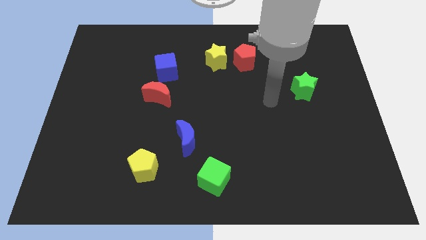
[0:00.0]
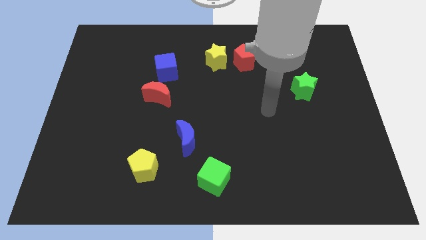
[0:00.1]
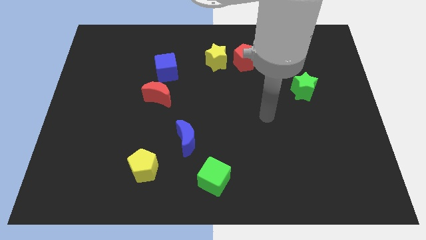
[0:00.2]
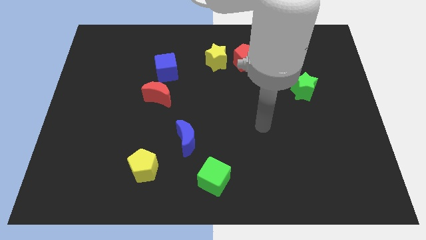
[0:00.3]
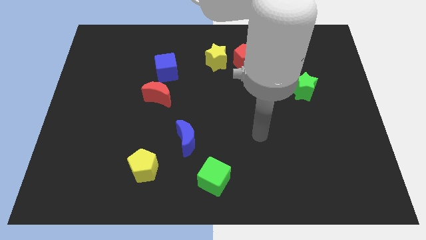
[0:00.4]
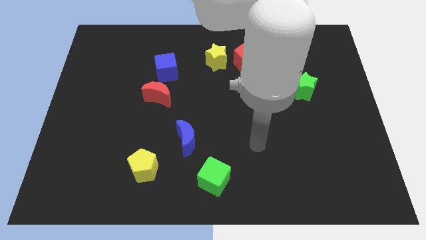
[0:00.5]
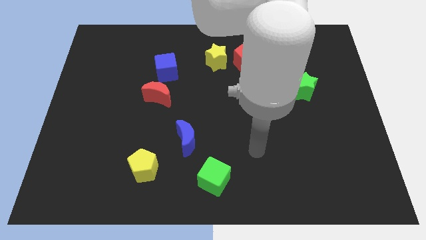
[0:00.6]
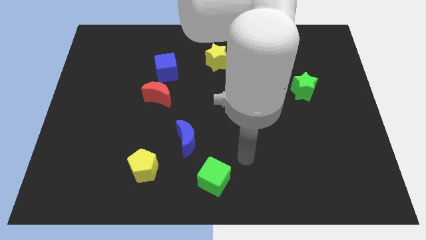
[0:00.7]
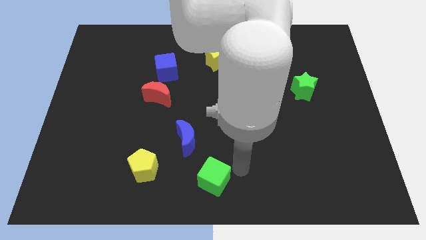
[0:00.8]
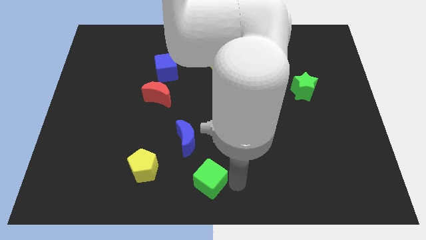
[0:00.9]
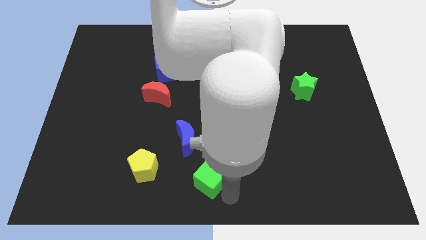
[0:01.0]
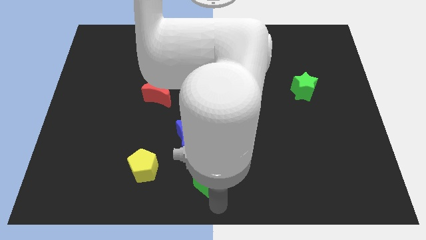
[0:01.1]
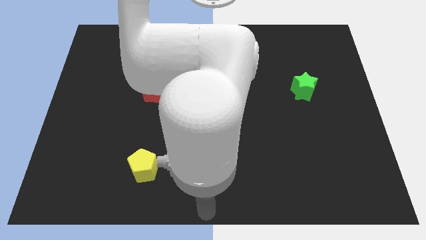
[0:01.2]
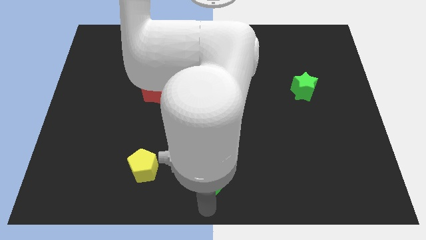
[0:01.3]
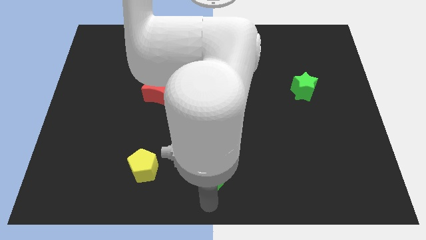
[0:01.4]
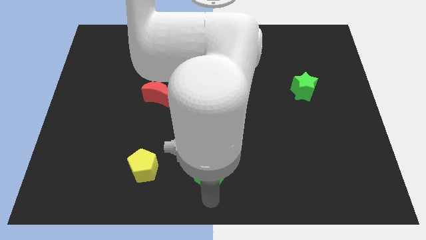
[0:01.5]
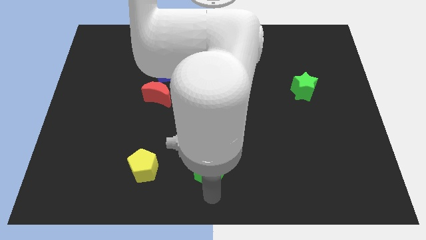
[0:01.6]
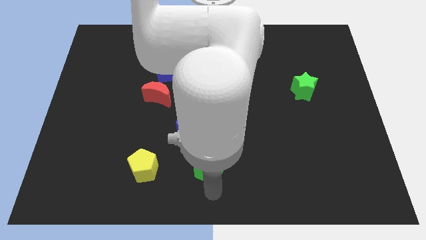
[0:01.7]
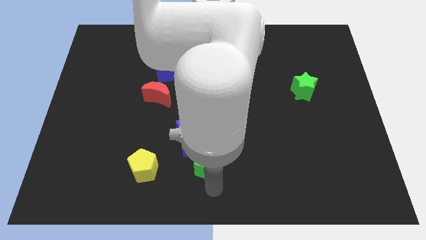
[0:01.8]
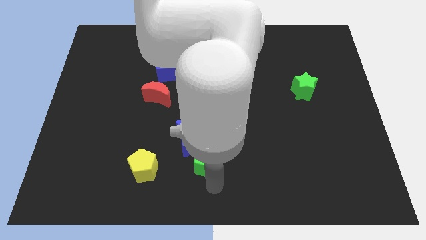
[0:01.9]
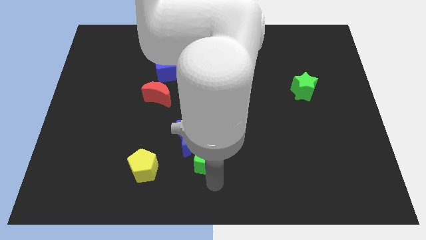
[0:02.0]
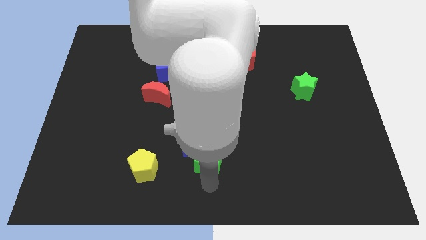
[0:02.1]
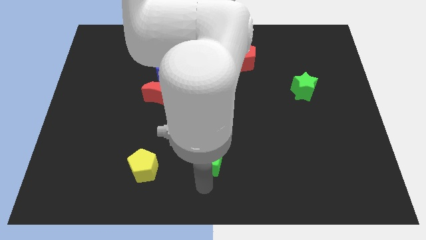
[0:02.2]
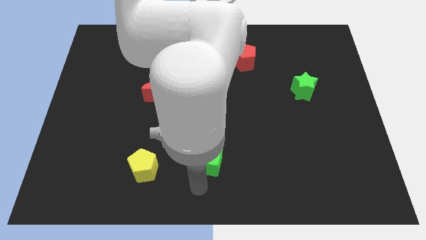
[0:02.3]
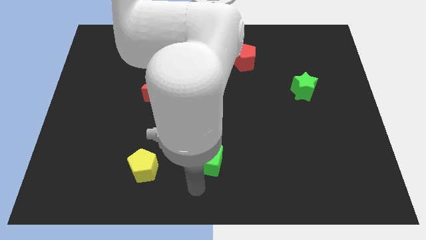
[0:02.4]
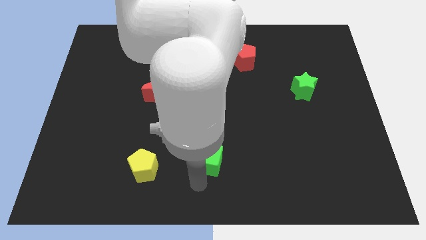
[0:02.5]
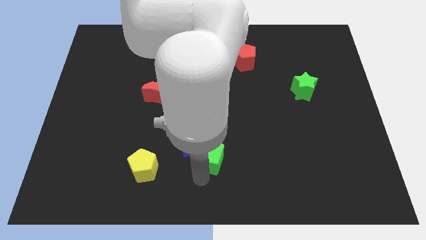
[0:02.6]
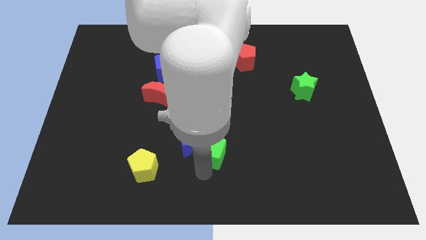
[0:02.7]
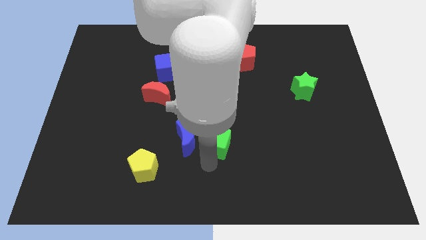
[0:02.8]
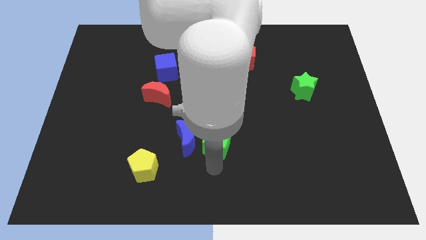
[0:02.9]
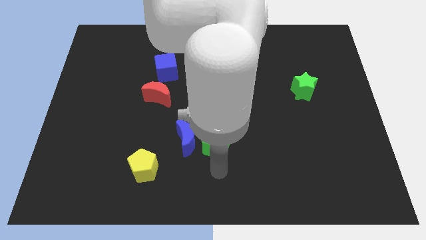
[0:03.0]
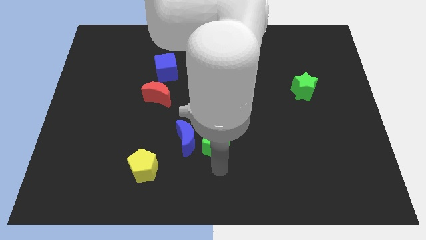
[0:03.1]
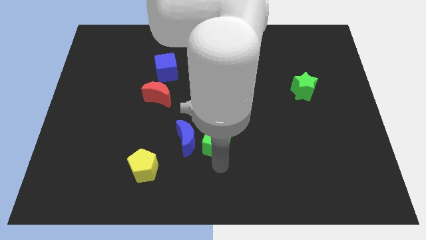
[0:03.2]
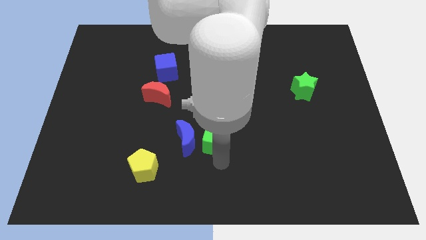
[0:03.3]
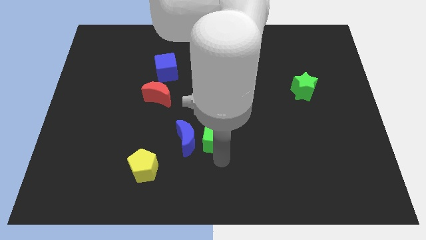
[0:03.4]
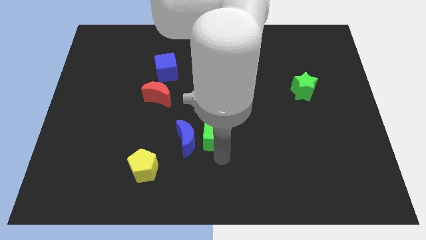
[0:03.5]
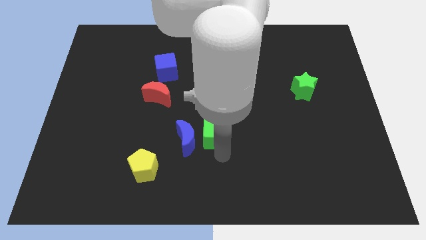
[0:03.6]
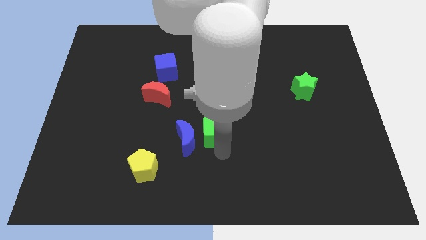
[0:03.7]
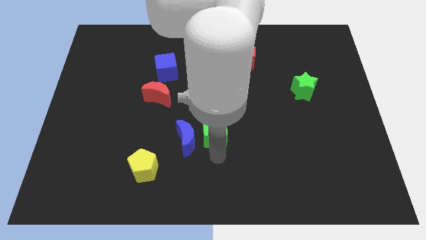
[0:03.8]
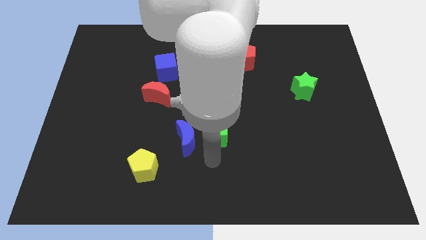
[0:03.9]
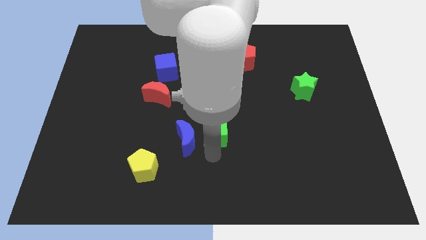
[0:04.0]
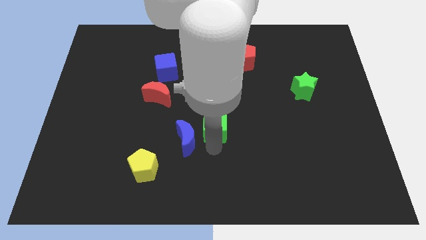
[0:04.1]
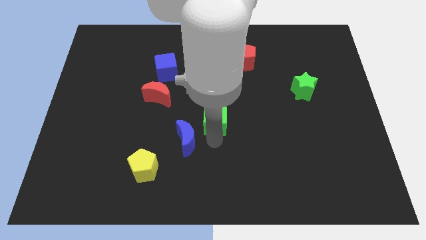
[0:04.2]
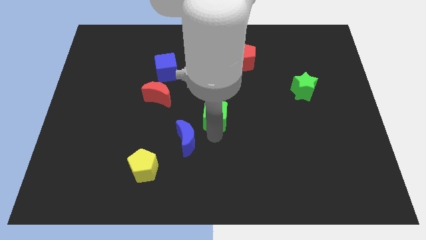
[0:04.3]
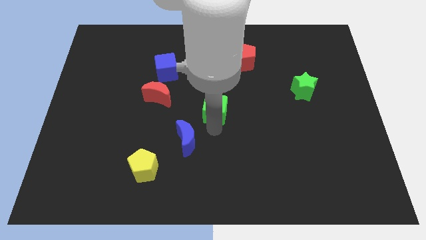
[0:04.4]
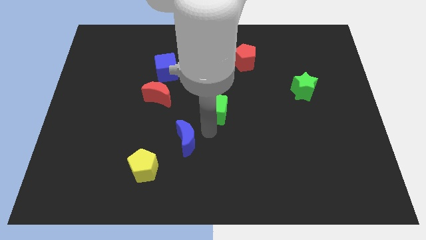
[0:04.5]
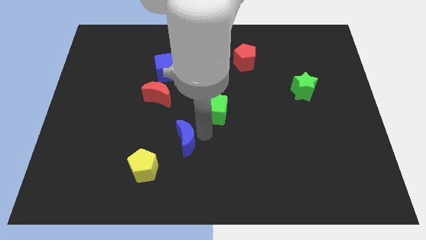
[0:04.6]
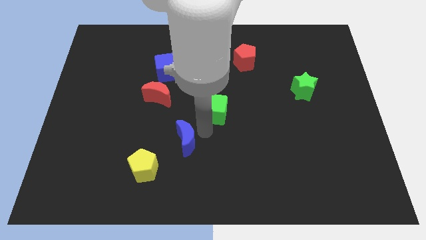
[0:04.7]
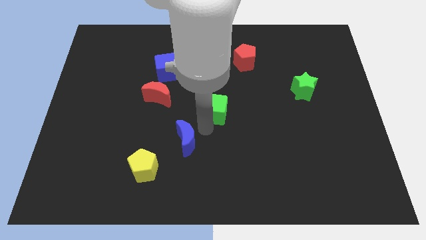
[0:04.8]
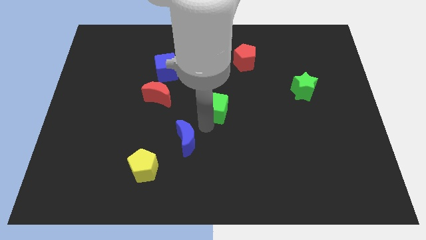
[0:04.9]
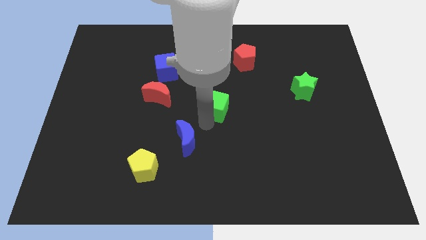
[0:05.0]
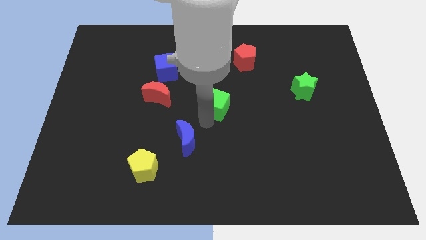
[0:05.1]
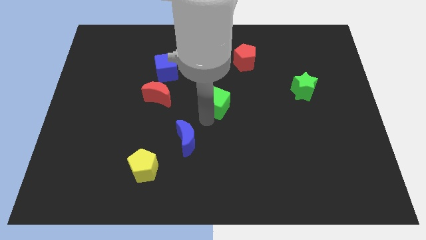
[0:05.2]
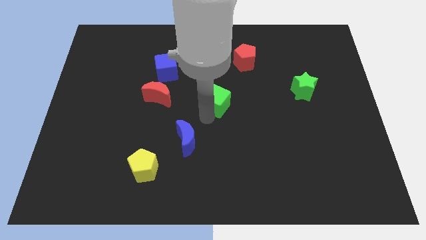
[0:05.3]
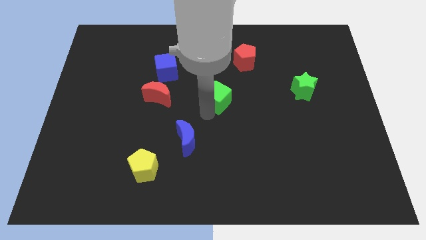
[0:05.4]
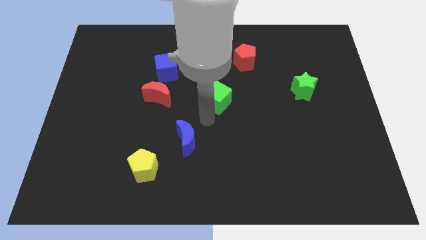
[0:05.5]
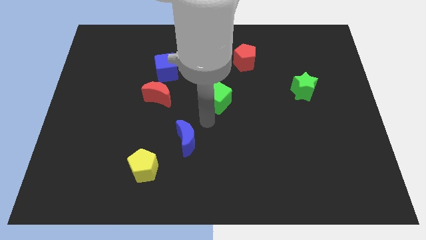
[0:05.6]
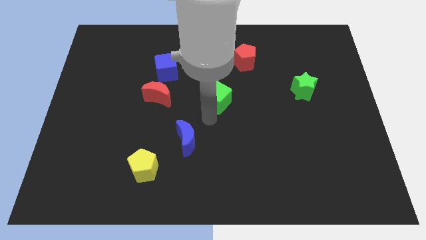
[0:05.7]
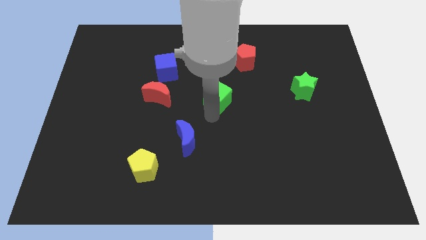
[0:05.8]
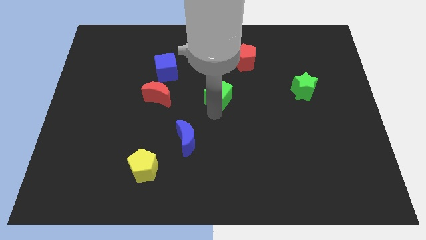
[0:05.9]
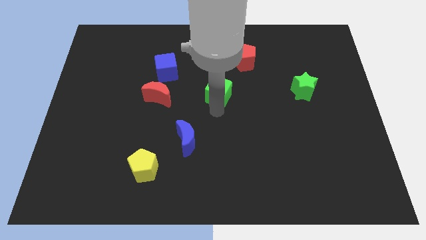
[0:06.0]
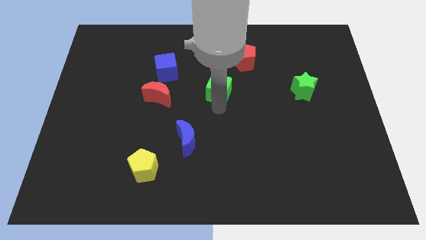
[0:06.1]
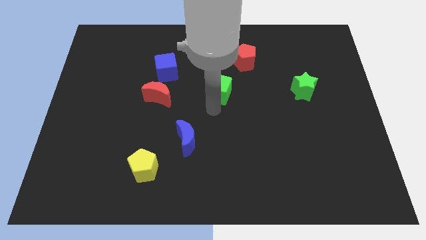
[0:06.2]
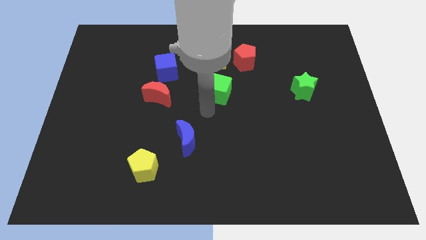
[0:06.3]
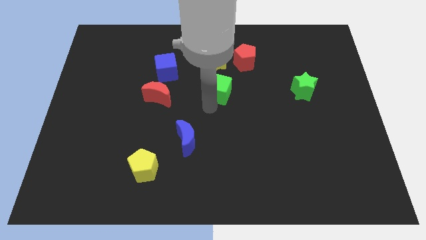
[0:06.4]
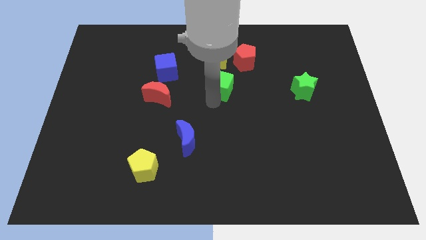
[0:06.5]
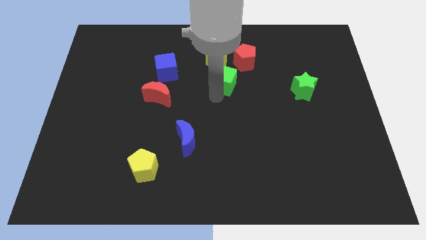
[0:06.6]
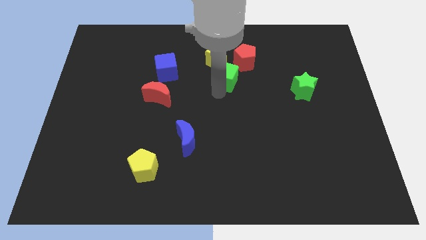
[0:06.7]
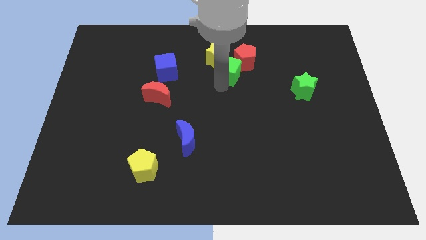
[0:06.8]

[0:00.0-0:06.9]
move the green cube close to the red pentagon

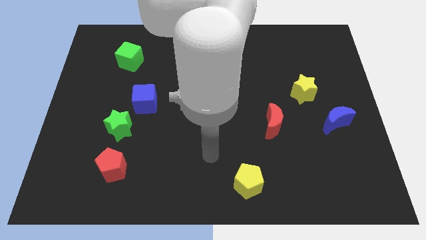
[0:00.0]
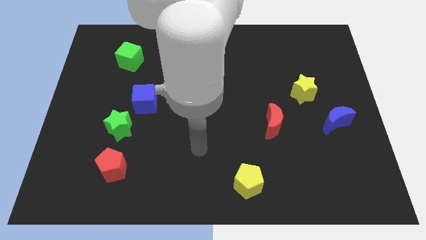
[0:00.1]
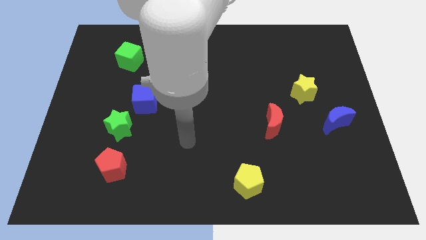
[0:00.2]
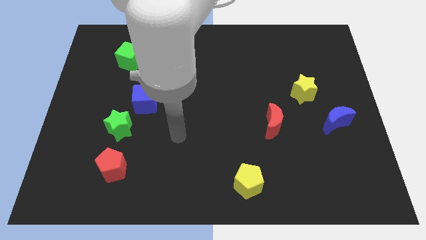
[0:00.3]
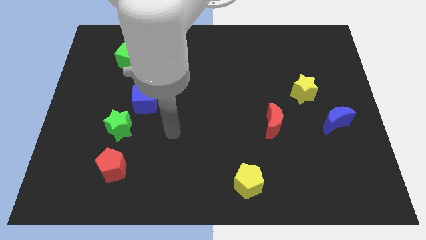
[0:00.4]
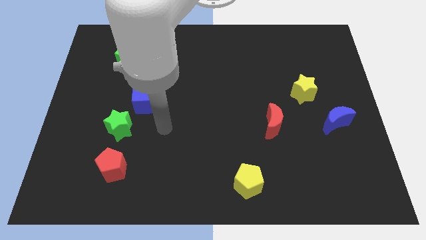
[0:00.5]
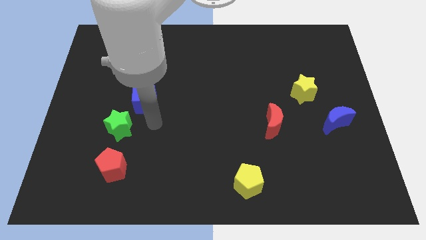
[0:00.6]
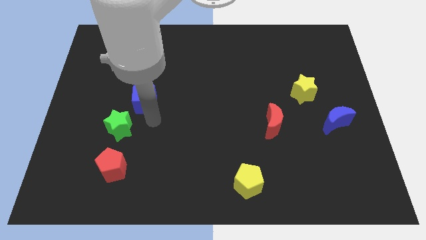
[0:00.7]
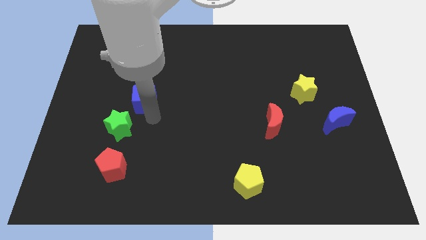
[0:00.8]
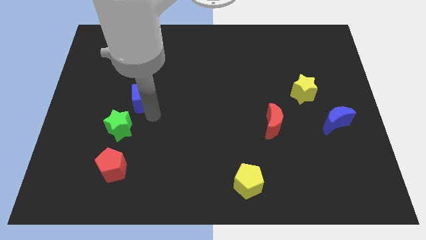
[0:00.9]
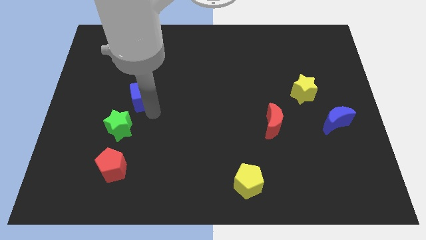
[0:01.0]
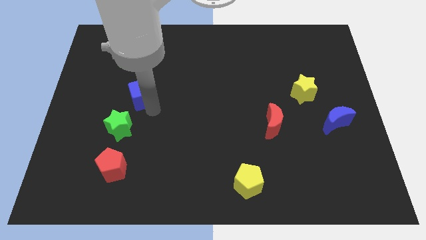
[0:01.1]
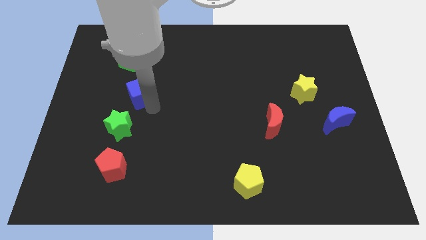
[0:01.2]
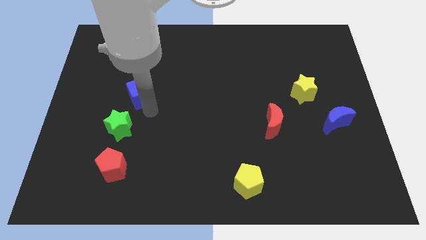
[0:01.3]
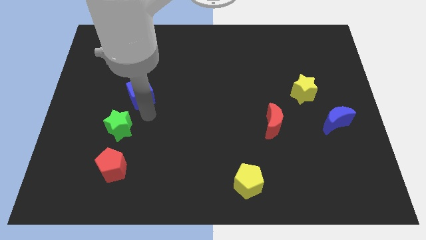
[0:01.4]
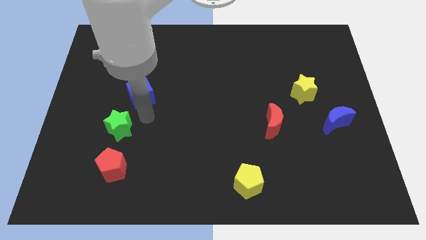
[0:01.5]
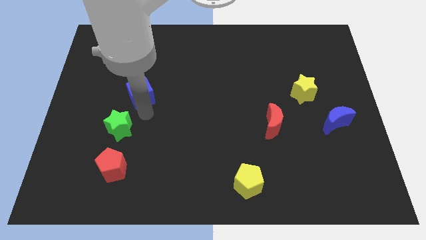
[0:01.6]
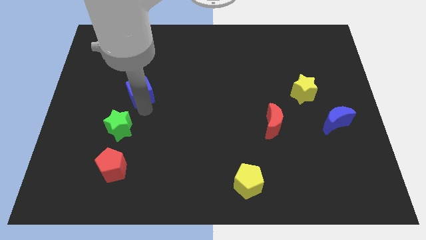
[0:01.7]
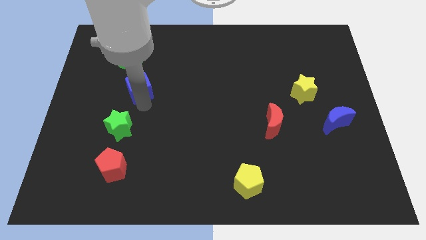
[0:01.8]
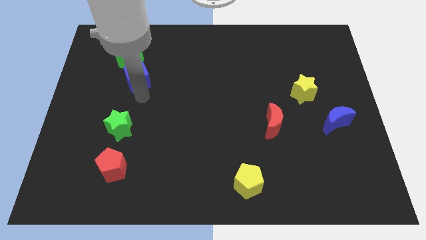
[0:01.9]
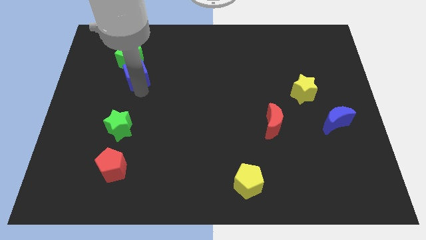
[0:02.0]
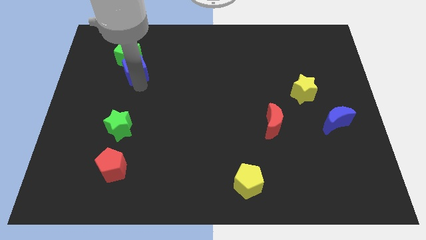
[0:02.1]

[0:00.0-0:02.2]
push the blue cube next to the green cube
